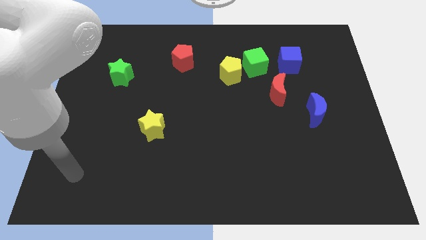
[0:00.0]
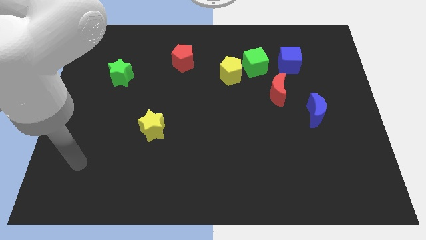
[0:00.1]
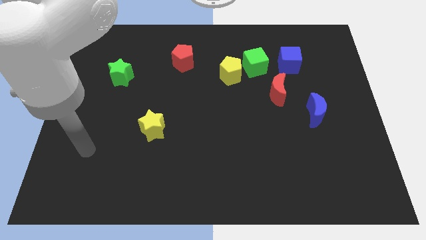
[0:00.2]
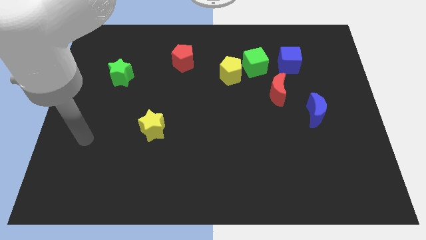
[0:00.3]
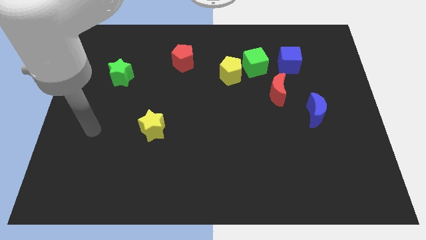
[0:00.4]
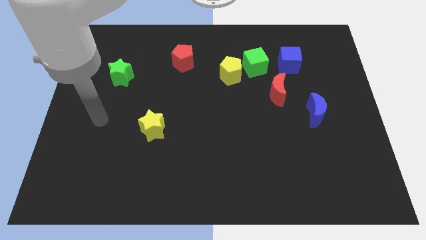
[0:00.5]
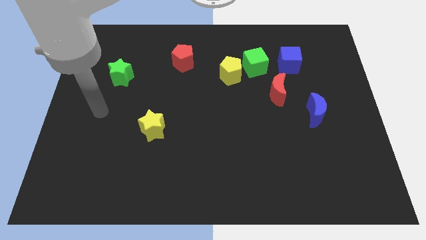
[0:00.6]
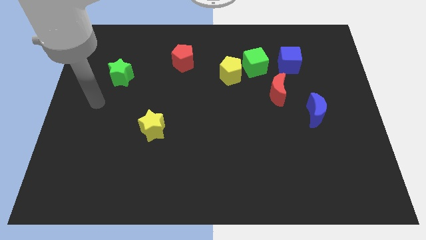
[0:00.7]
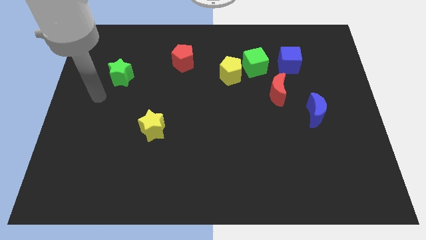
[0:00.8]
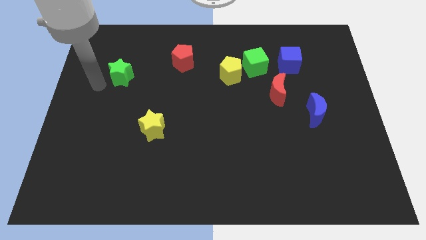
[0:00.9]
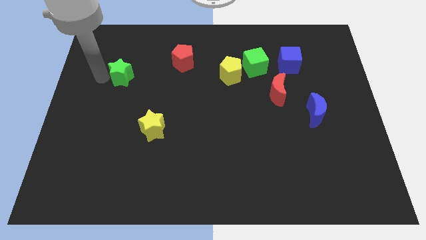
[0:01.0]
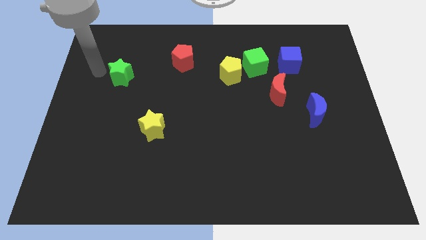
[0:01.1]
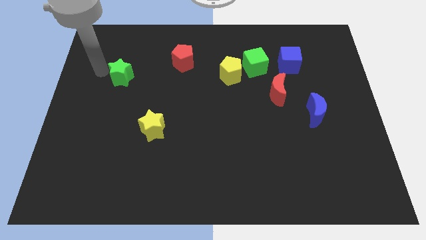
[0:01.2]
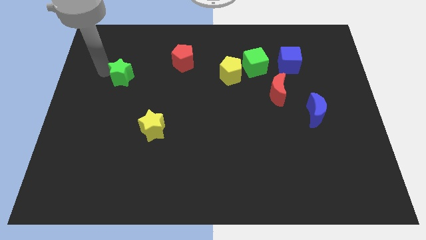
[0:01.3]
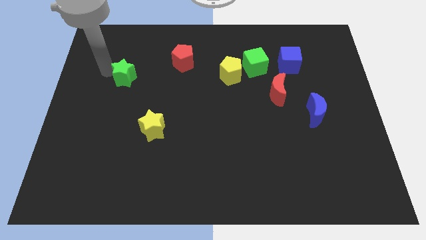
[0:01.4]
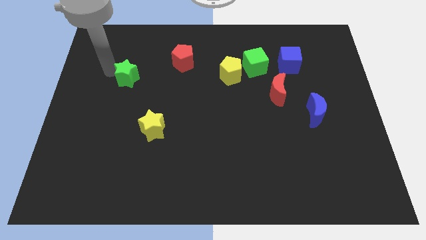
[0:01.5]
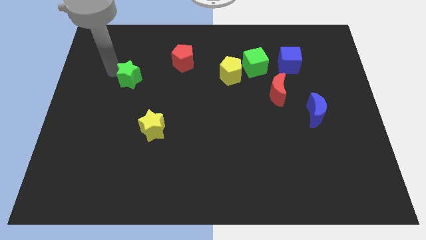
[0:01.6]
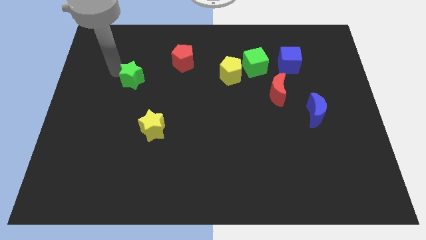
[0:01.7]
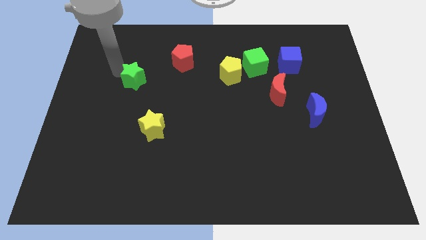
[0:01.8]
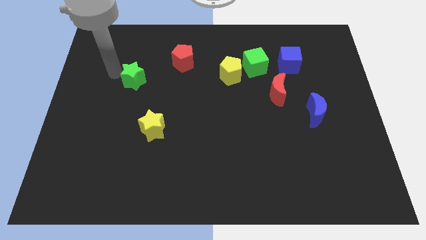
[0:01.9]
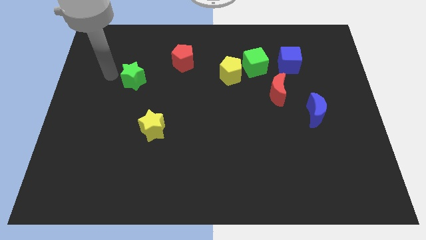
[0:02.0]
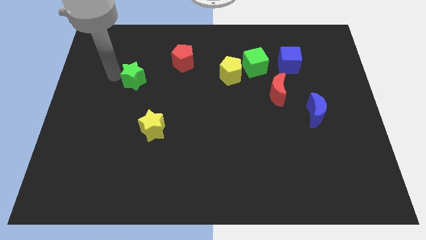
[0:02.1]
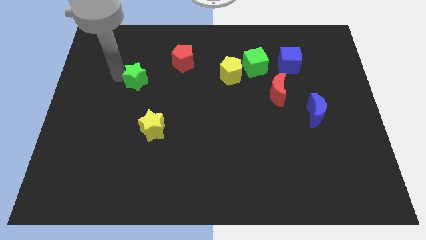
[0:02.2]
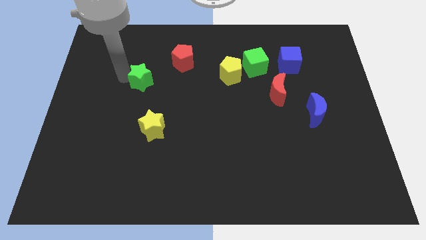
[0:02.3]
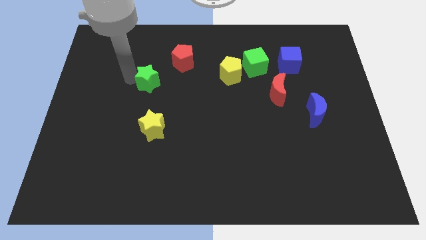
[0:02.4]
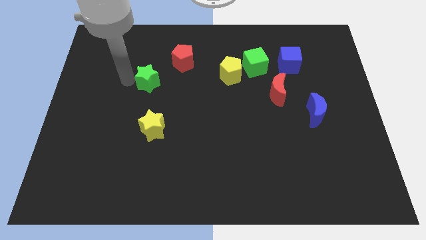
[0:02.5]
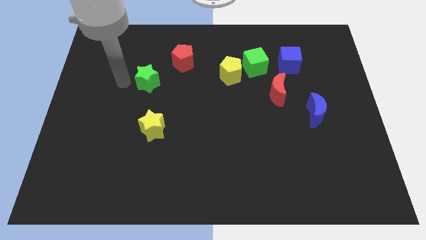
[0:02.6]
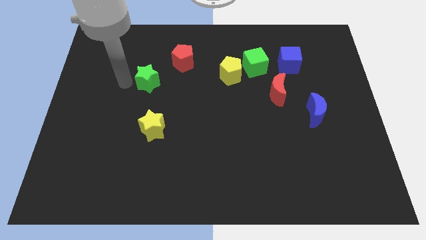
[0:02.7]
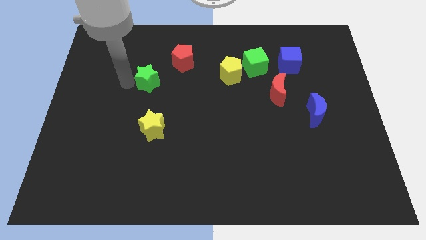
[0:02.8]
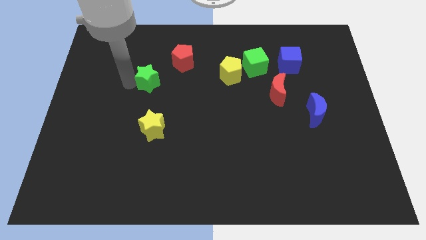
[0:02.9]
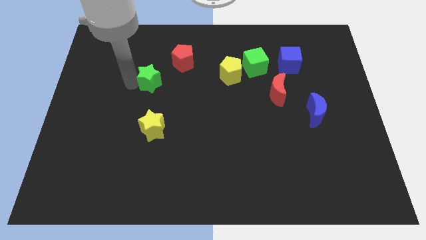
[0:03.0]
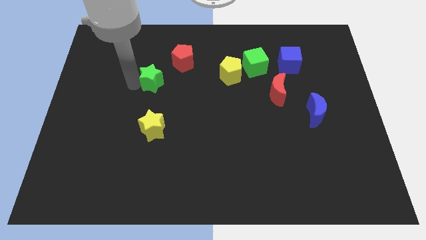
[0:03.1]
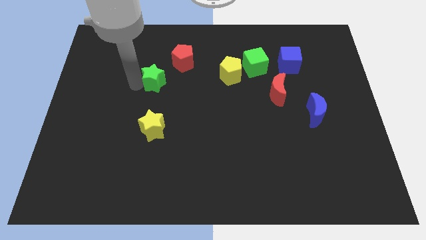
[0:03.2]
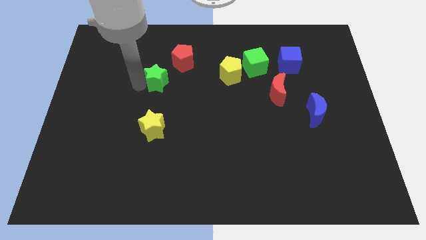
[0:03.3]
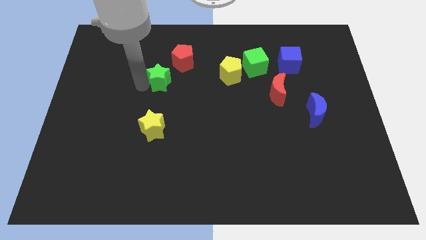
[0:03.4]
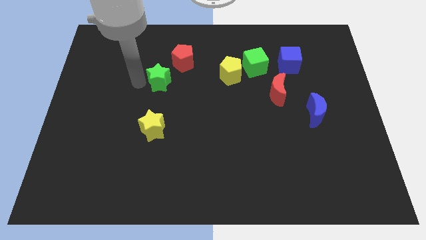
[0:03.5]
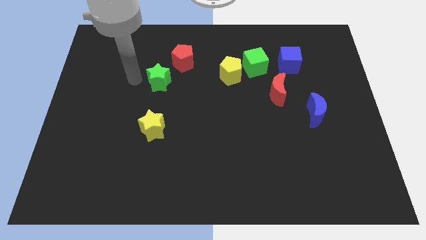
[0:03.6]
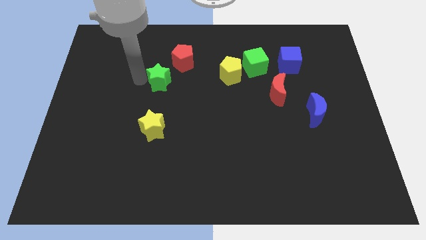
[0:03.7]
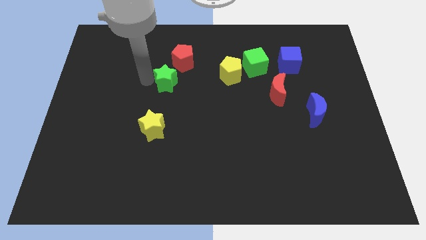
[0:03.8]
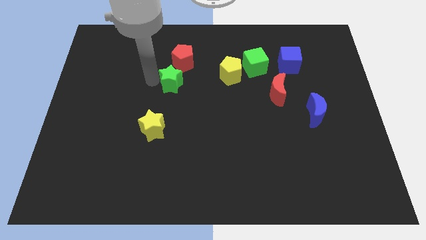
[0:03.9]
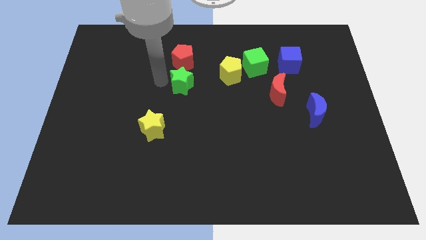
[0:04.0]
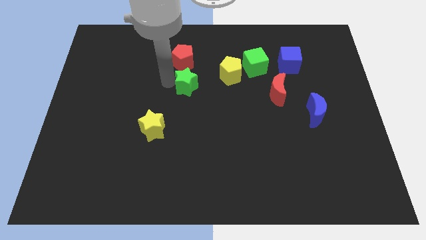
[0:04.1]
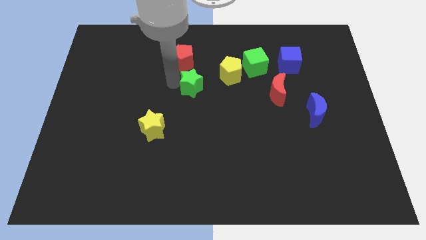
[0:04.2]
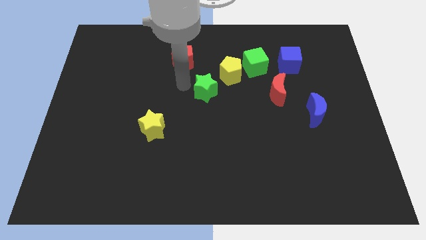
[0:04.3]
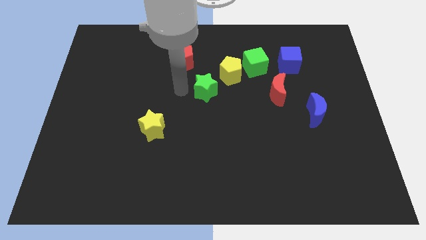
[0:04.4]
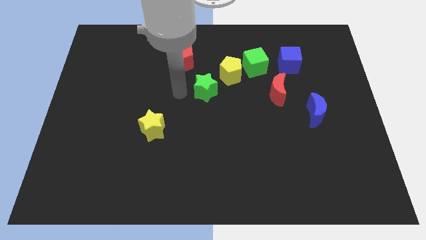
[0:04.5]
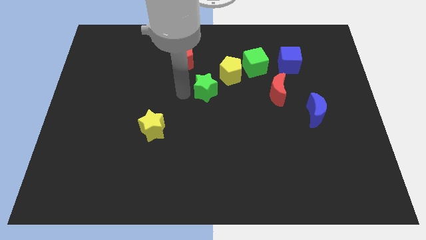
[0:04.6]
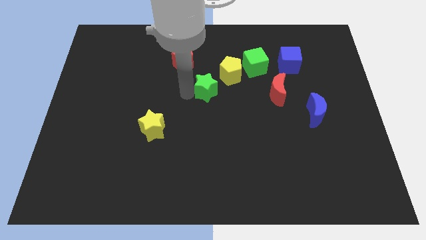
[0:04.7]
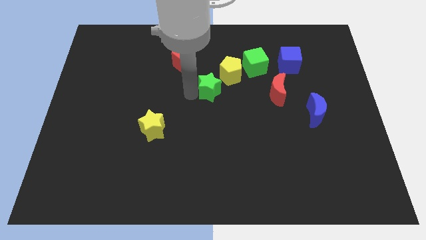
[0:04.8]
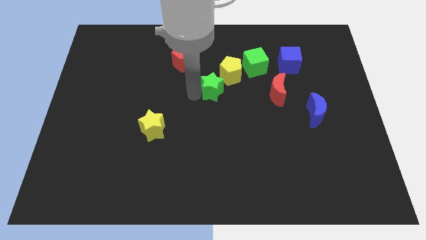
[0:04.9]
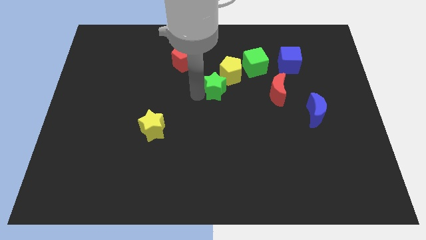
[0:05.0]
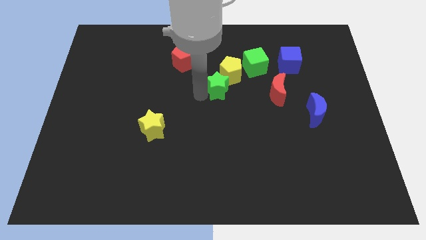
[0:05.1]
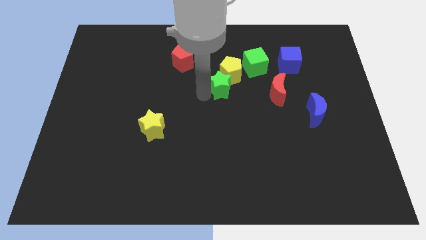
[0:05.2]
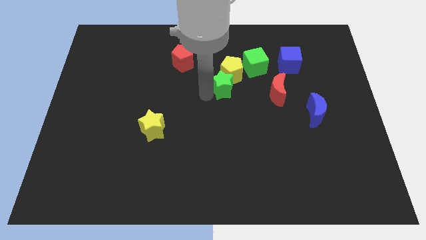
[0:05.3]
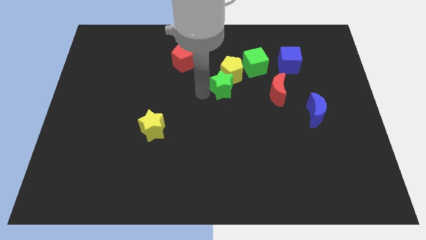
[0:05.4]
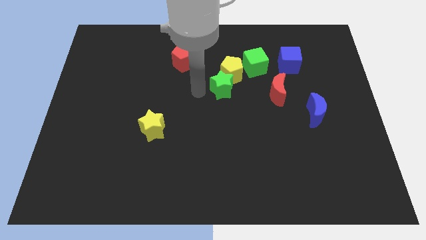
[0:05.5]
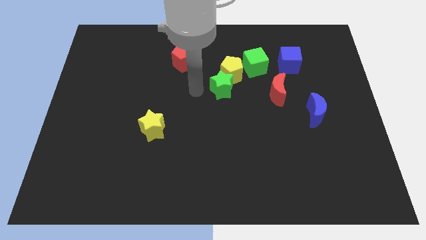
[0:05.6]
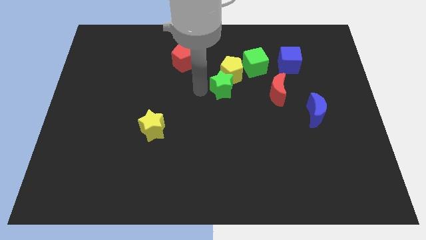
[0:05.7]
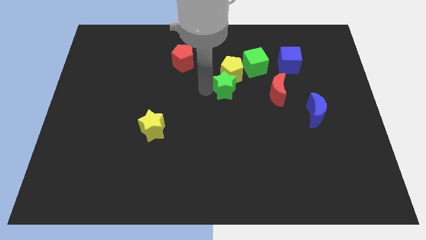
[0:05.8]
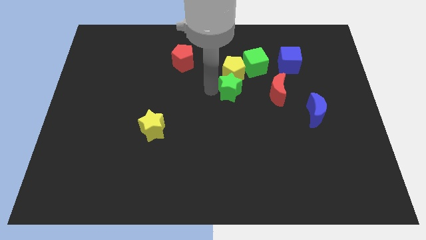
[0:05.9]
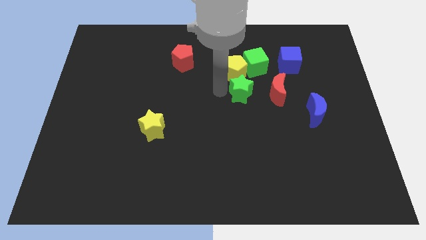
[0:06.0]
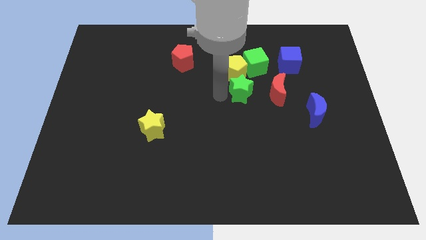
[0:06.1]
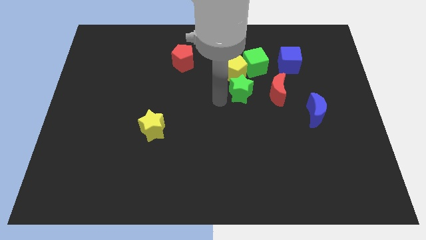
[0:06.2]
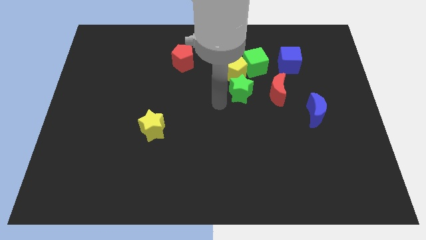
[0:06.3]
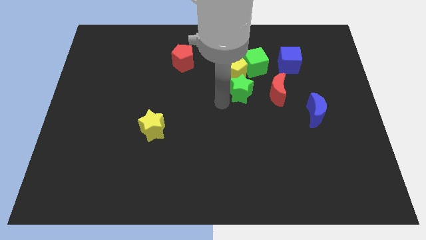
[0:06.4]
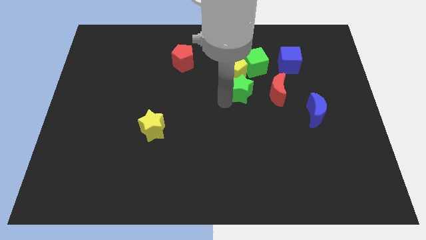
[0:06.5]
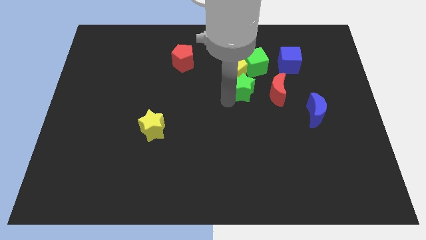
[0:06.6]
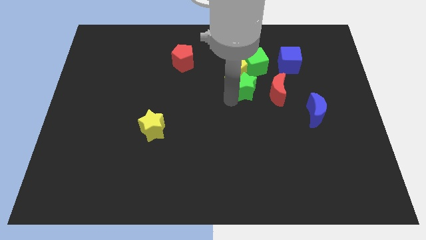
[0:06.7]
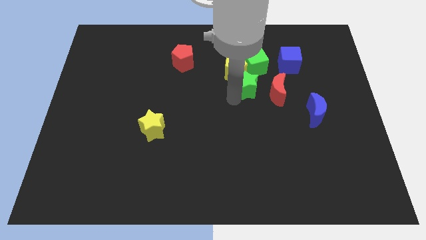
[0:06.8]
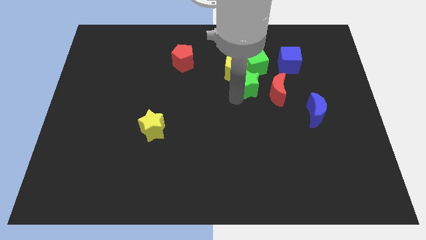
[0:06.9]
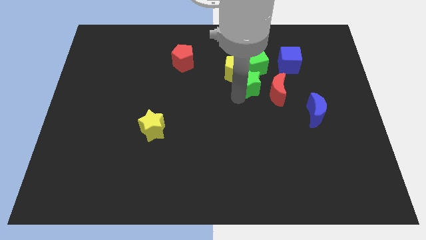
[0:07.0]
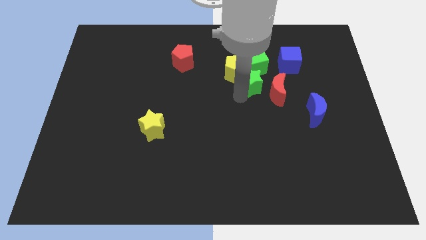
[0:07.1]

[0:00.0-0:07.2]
push the green star to the right side of the yellow pentagon
